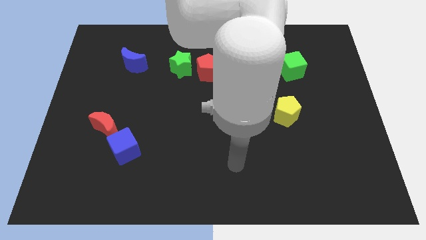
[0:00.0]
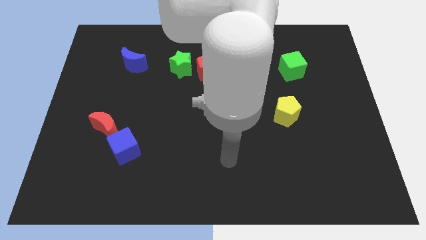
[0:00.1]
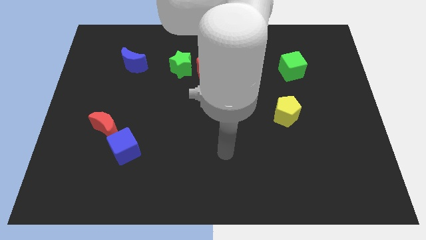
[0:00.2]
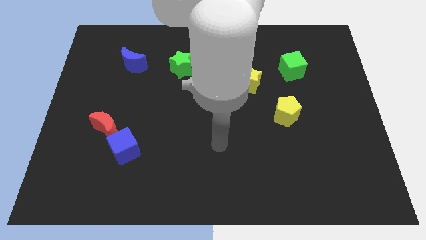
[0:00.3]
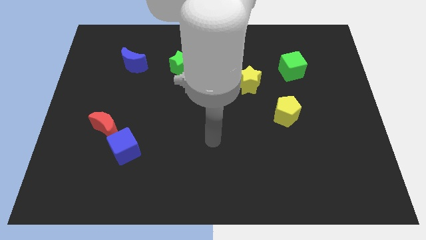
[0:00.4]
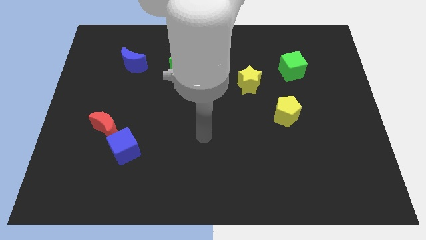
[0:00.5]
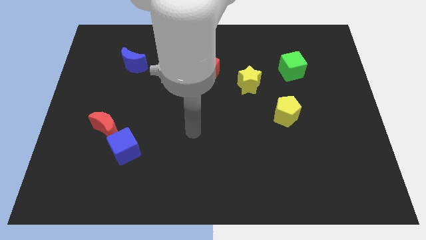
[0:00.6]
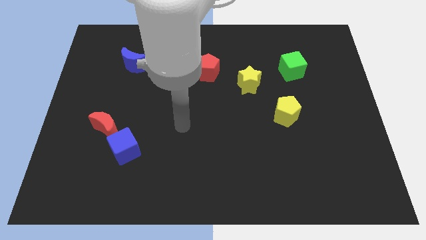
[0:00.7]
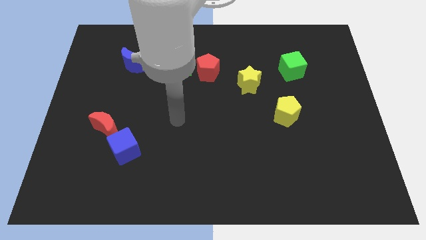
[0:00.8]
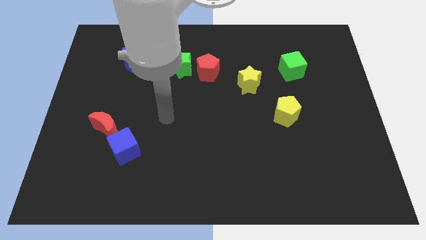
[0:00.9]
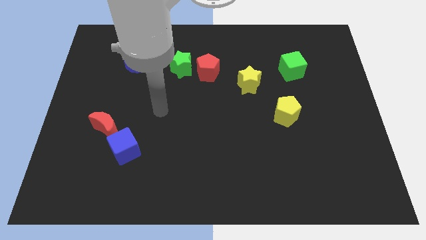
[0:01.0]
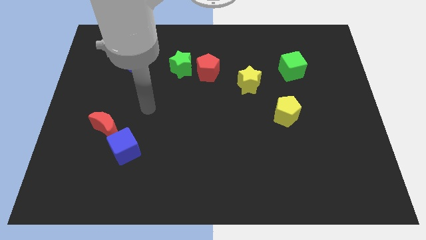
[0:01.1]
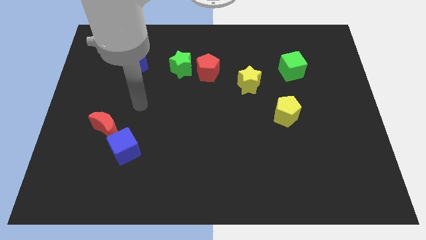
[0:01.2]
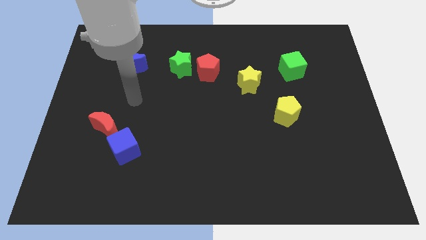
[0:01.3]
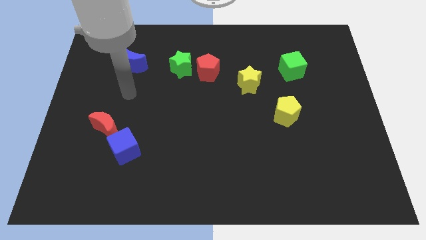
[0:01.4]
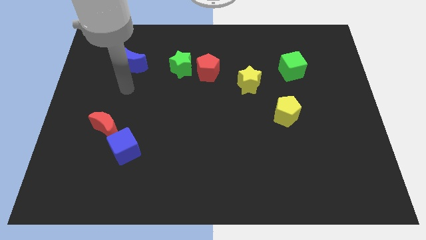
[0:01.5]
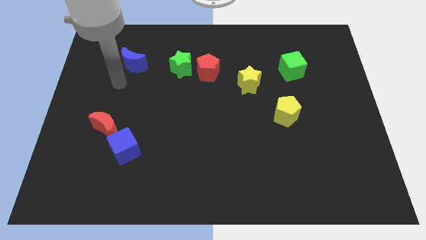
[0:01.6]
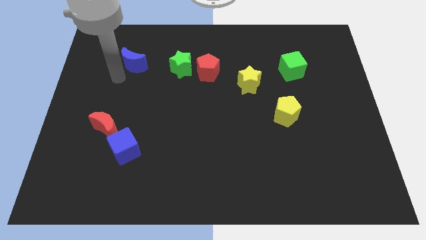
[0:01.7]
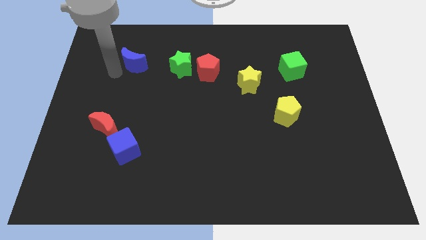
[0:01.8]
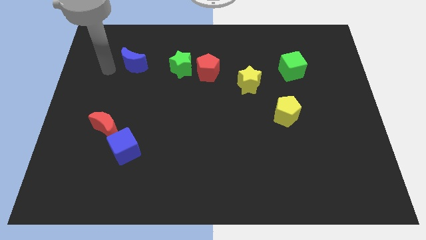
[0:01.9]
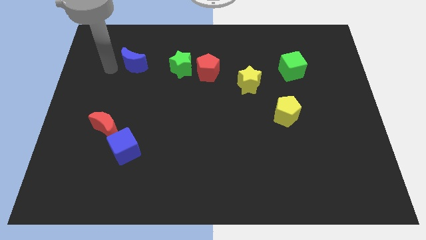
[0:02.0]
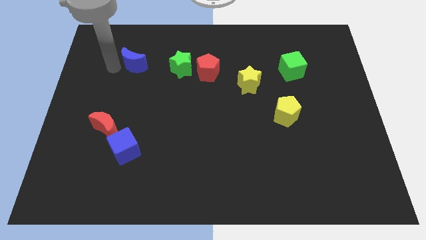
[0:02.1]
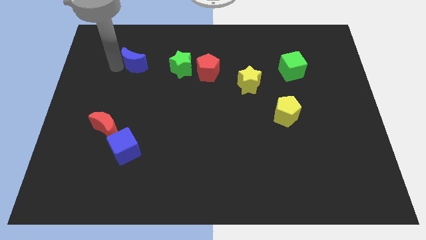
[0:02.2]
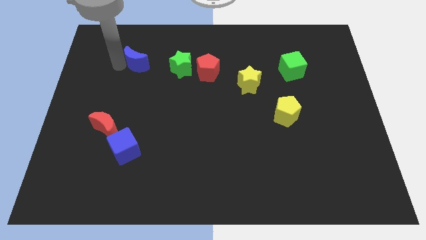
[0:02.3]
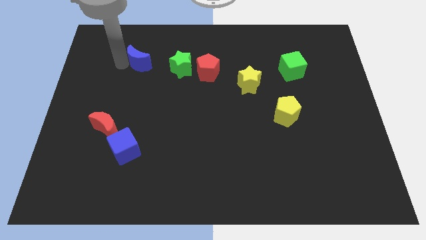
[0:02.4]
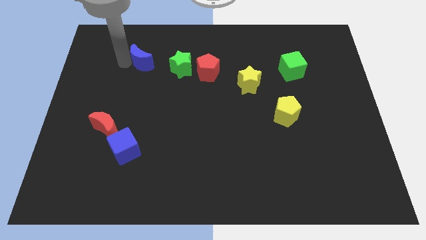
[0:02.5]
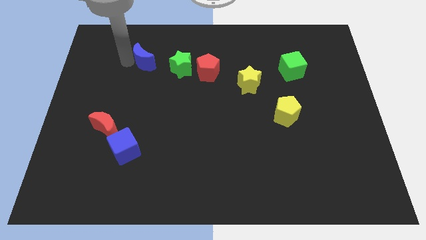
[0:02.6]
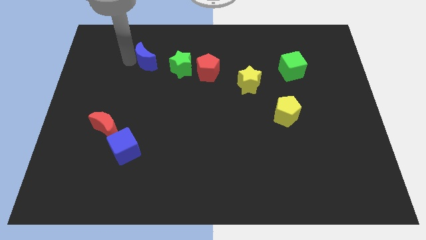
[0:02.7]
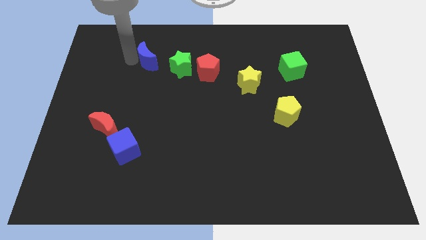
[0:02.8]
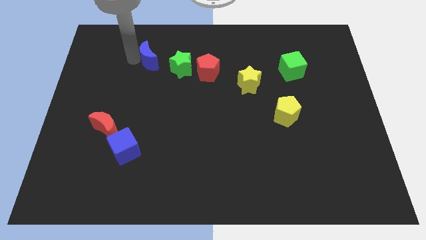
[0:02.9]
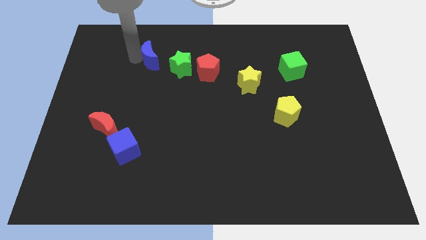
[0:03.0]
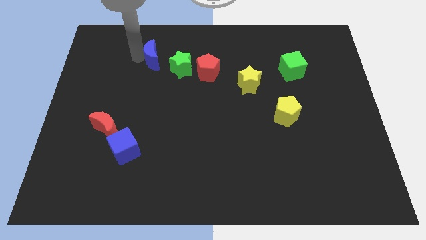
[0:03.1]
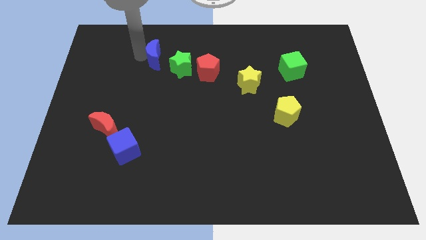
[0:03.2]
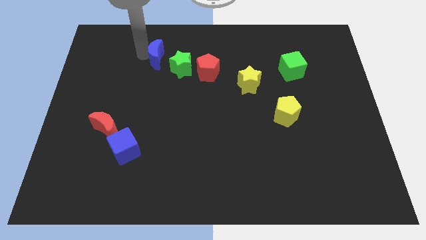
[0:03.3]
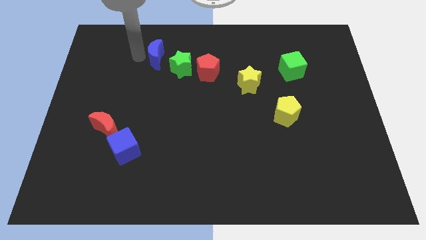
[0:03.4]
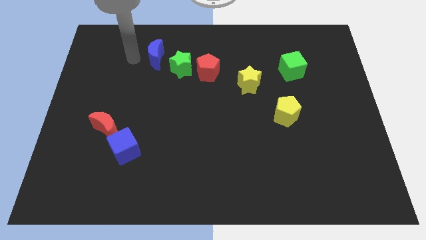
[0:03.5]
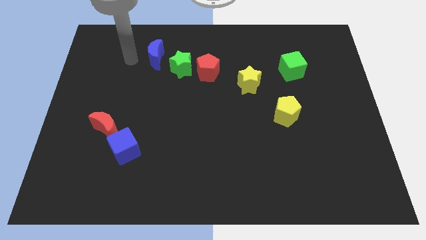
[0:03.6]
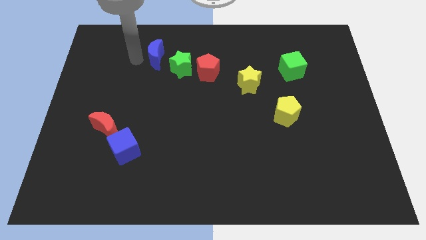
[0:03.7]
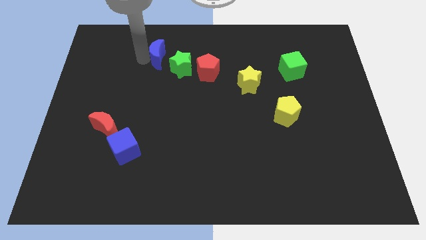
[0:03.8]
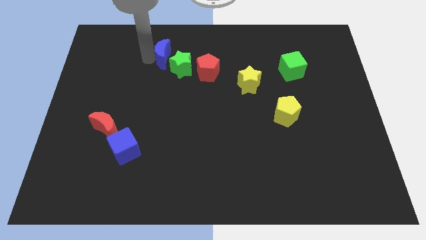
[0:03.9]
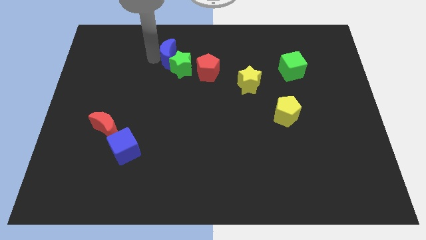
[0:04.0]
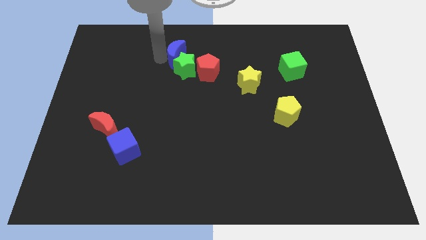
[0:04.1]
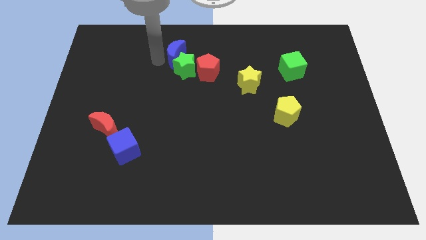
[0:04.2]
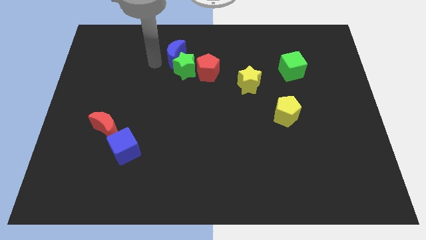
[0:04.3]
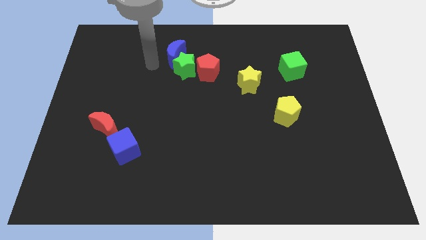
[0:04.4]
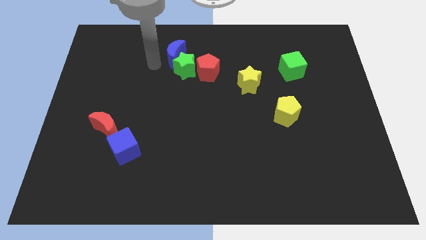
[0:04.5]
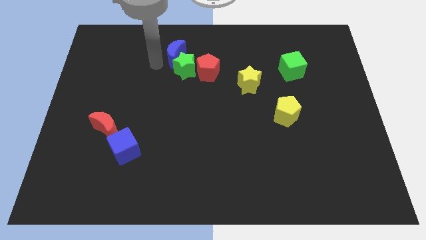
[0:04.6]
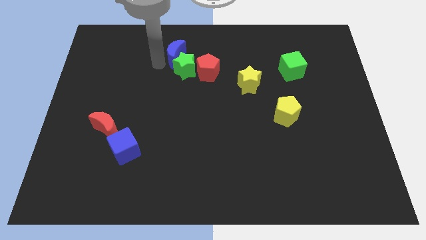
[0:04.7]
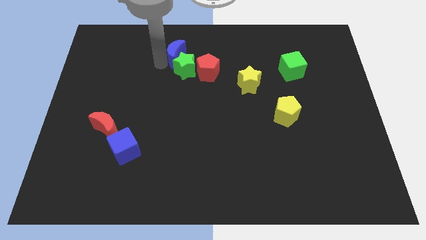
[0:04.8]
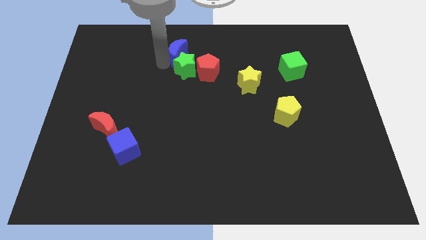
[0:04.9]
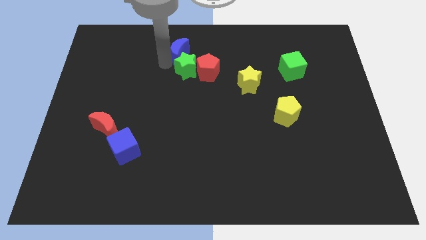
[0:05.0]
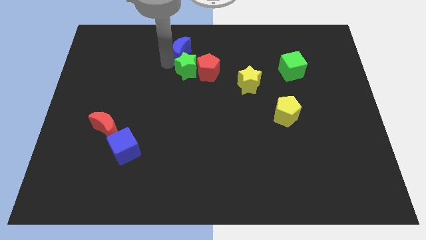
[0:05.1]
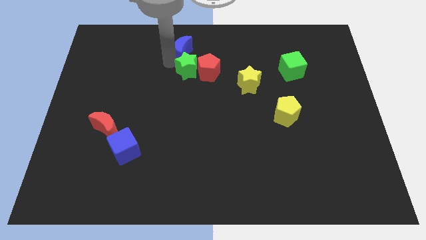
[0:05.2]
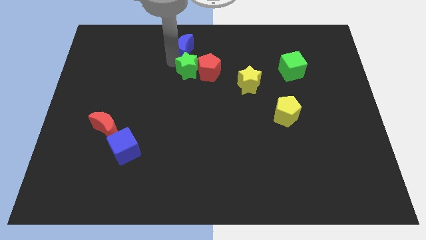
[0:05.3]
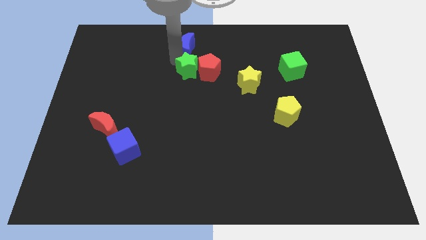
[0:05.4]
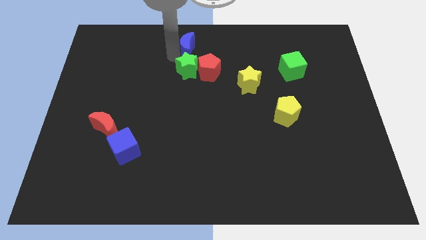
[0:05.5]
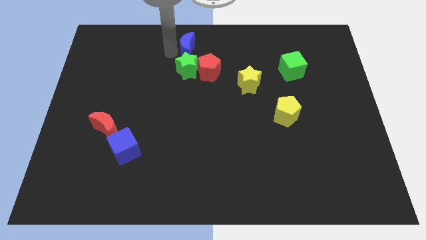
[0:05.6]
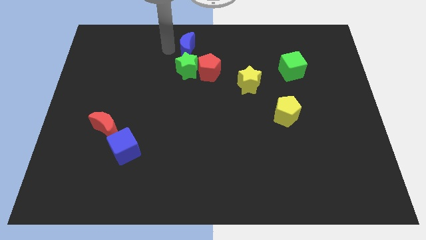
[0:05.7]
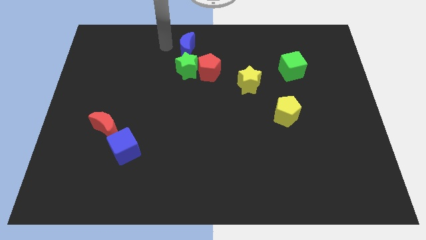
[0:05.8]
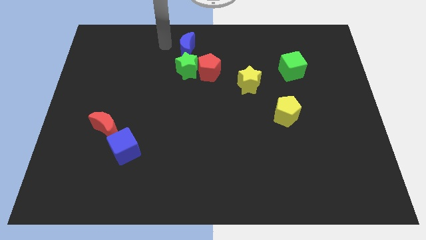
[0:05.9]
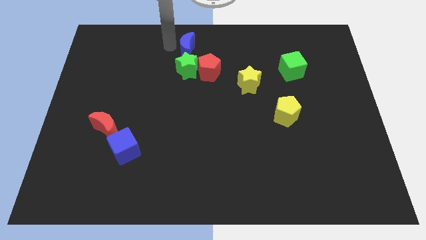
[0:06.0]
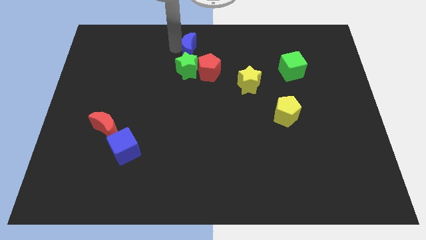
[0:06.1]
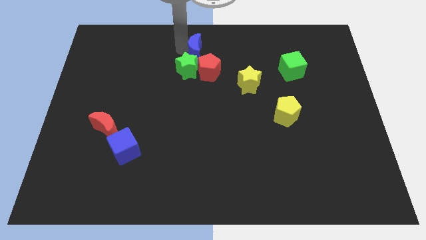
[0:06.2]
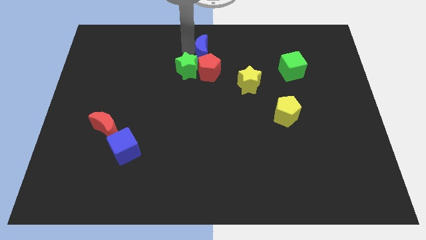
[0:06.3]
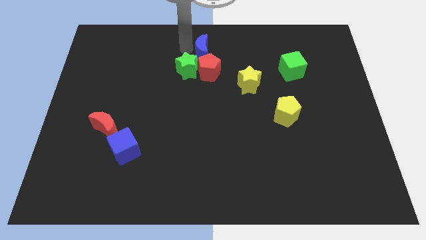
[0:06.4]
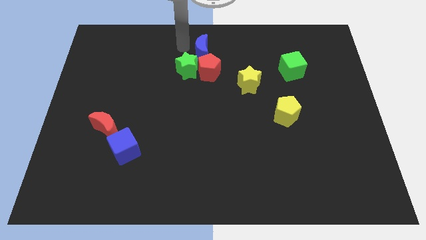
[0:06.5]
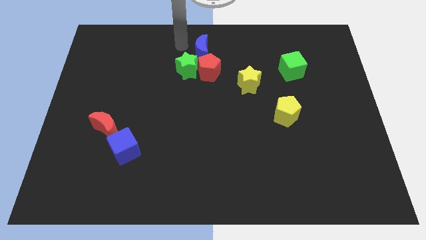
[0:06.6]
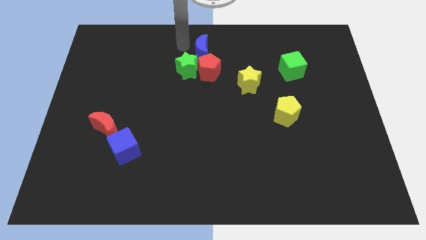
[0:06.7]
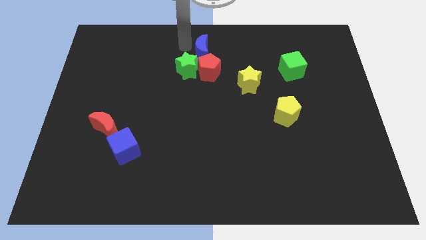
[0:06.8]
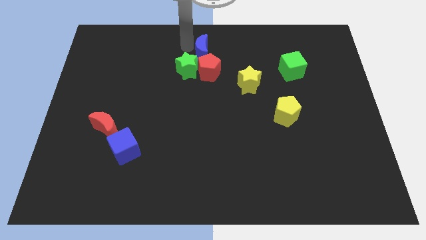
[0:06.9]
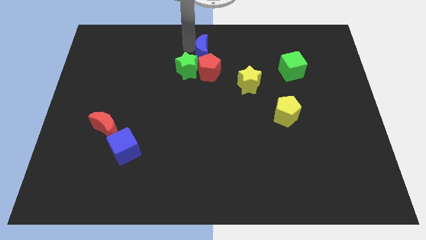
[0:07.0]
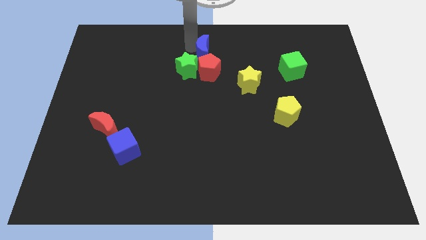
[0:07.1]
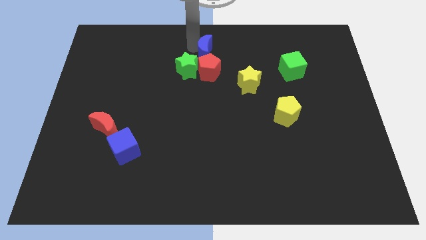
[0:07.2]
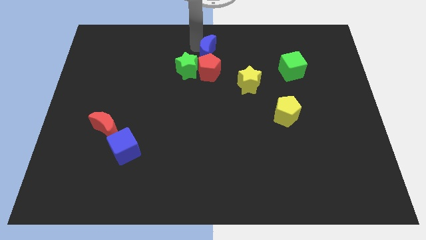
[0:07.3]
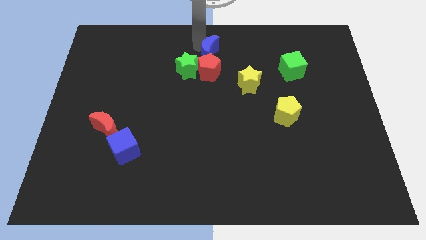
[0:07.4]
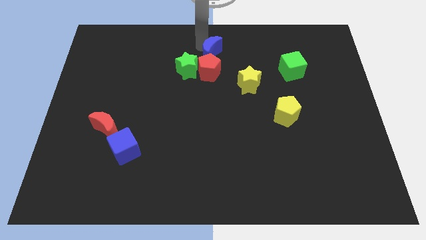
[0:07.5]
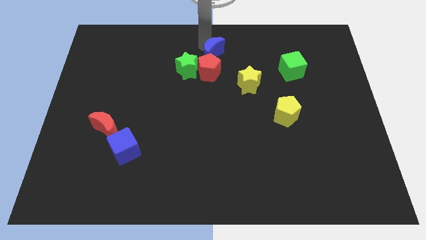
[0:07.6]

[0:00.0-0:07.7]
push the blue moon to the right

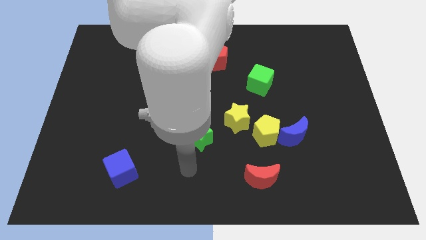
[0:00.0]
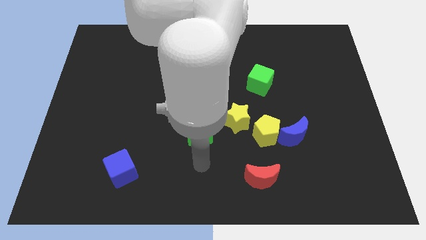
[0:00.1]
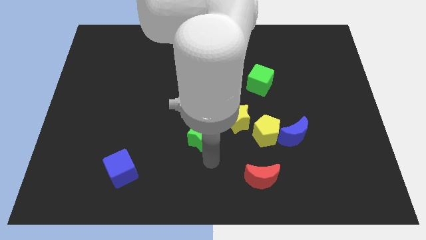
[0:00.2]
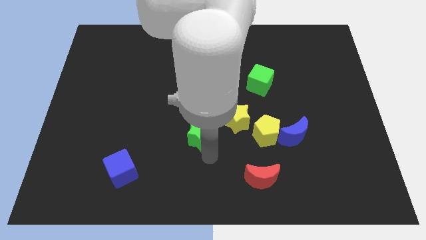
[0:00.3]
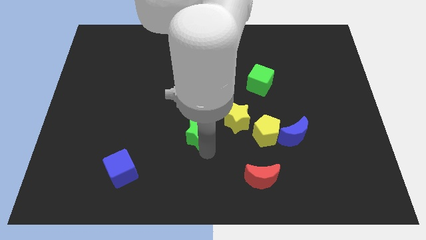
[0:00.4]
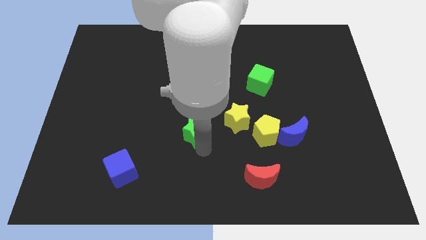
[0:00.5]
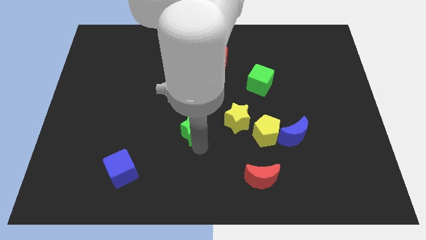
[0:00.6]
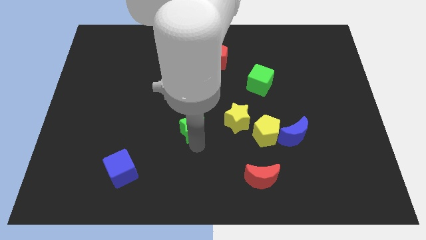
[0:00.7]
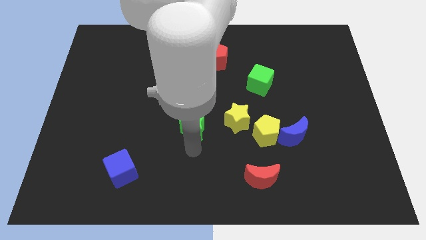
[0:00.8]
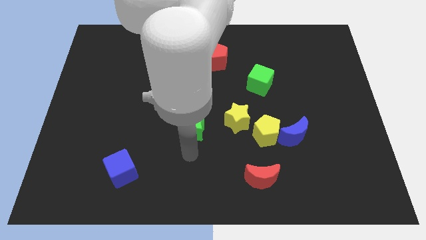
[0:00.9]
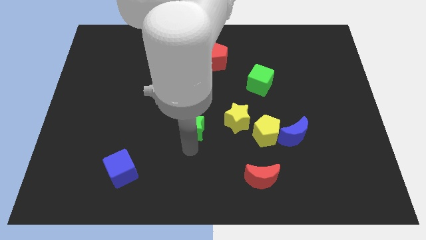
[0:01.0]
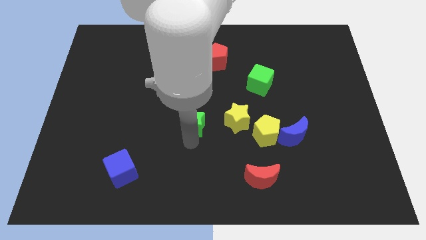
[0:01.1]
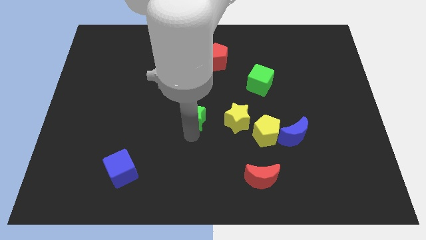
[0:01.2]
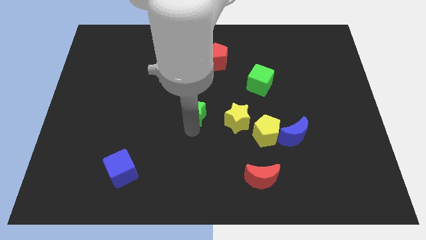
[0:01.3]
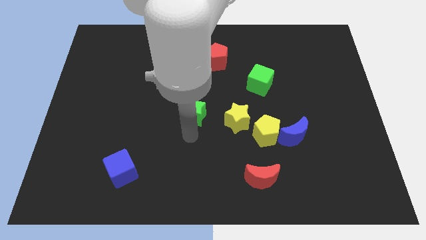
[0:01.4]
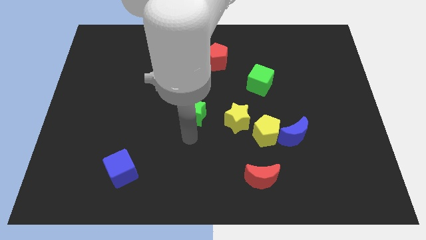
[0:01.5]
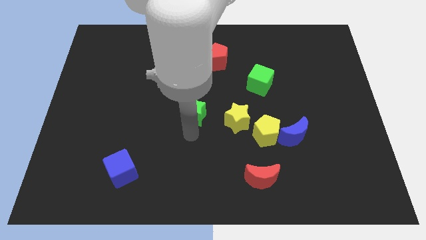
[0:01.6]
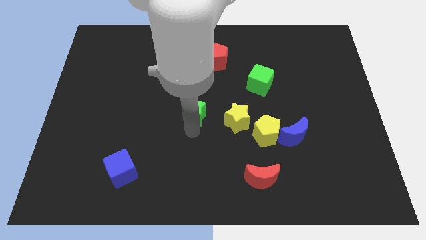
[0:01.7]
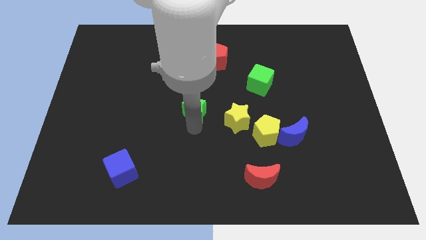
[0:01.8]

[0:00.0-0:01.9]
move the green star a little upwards
